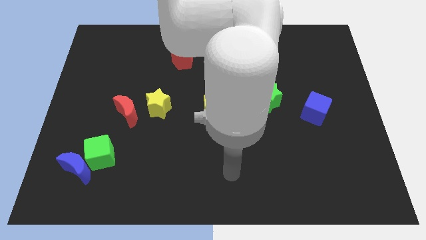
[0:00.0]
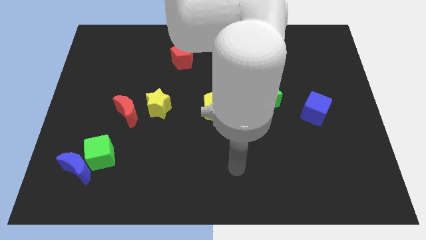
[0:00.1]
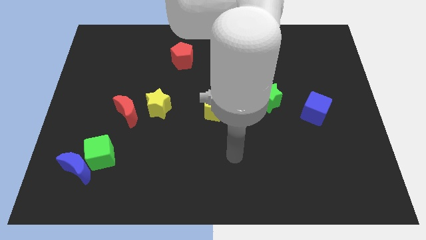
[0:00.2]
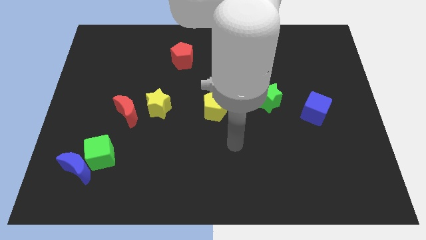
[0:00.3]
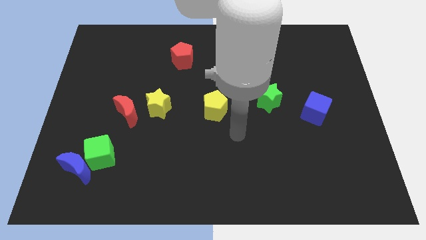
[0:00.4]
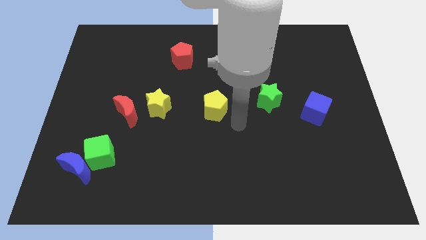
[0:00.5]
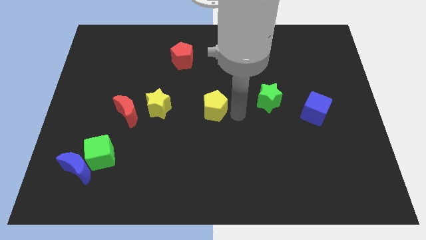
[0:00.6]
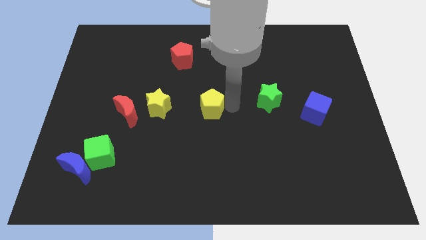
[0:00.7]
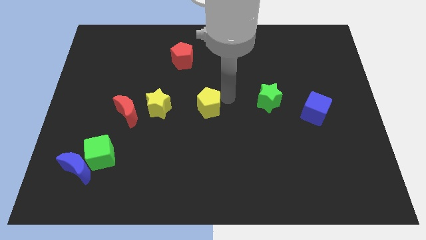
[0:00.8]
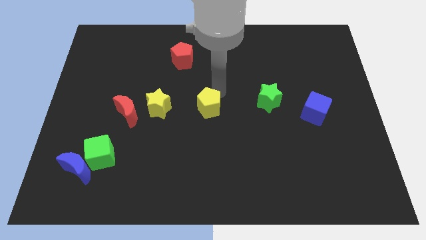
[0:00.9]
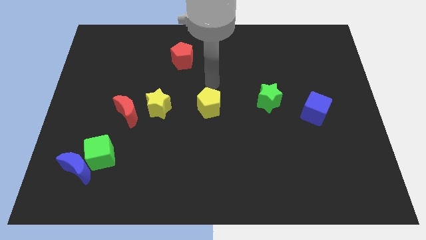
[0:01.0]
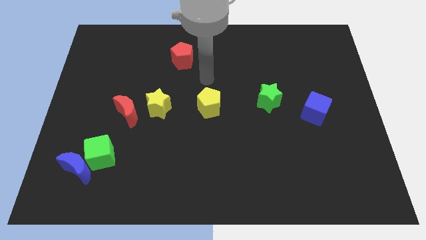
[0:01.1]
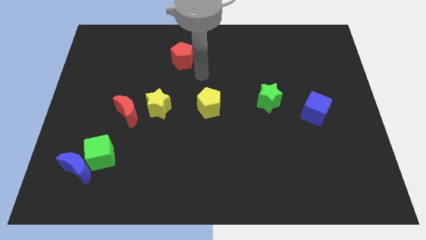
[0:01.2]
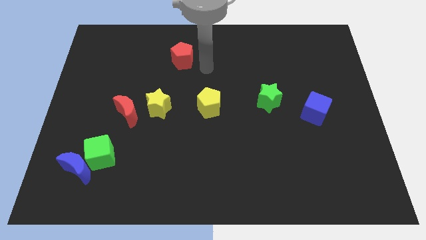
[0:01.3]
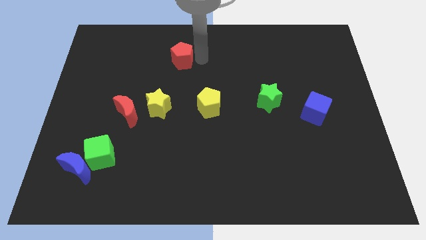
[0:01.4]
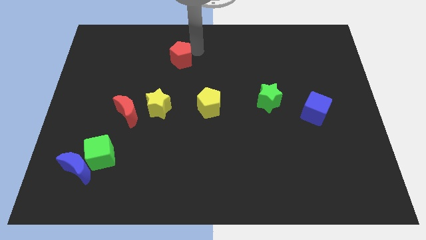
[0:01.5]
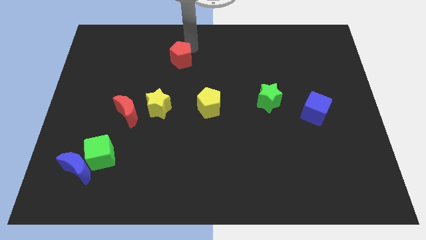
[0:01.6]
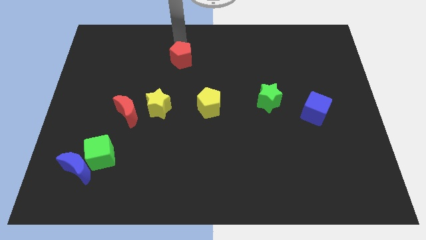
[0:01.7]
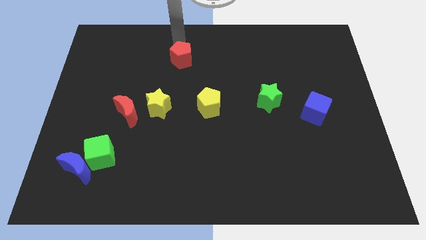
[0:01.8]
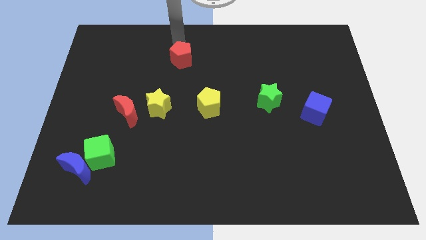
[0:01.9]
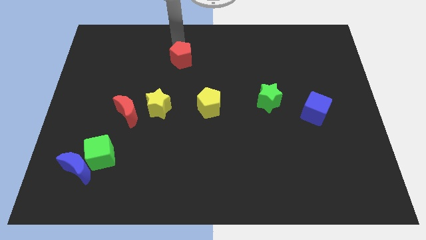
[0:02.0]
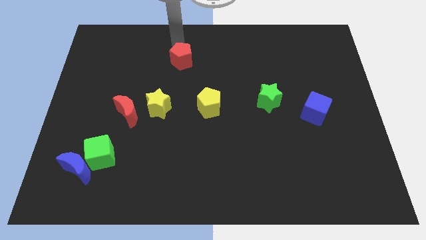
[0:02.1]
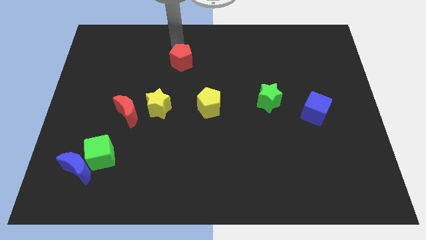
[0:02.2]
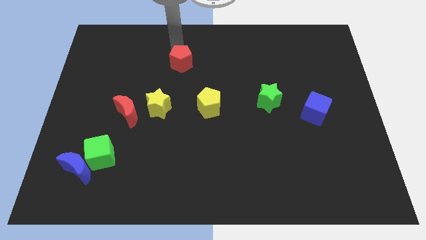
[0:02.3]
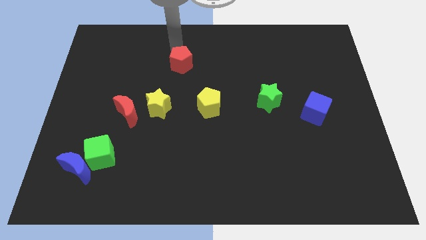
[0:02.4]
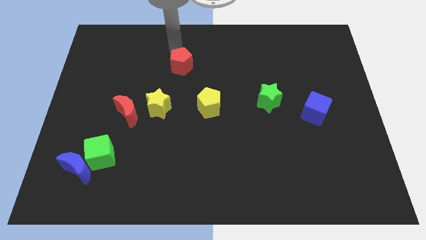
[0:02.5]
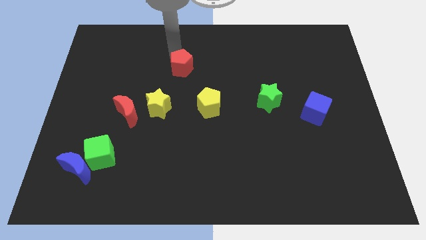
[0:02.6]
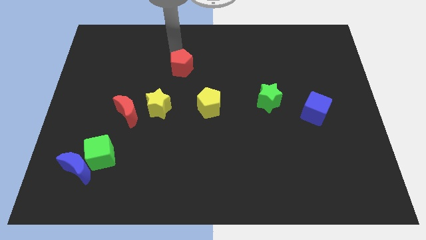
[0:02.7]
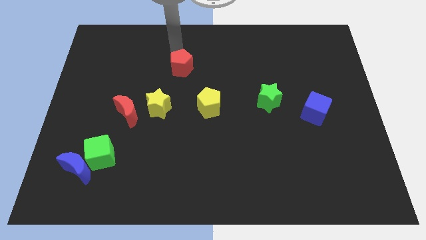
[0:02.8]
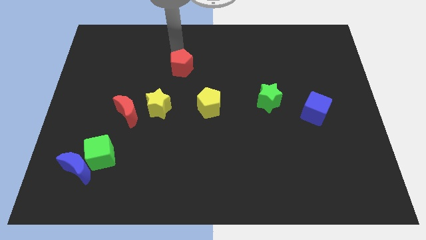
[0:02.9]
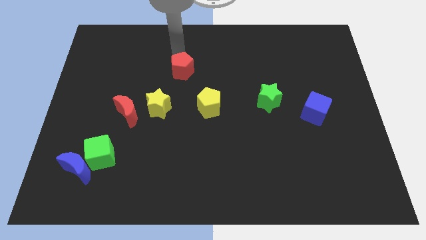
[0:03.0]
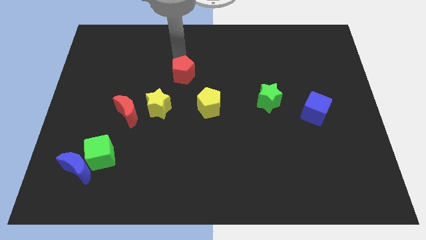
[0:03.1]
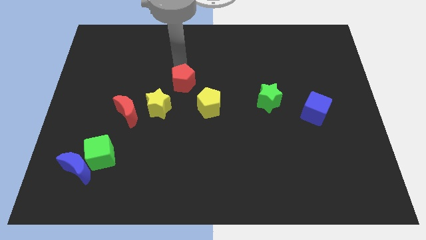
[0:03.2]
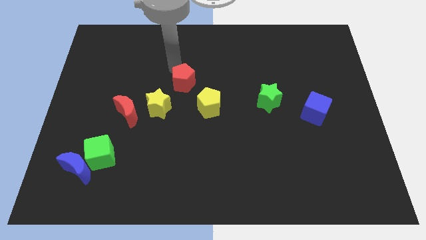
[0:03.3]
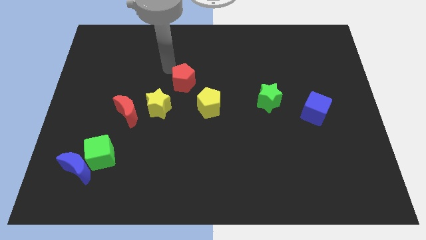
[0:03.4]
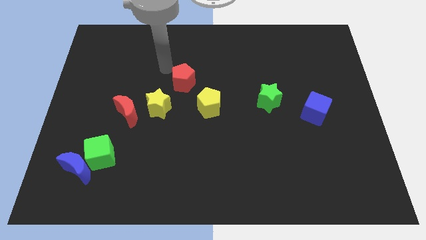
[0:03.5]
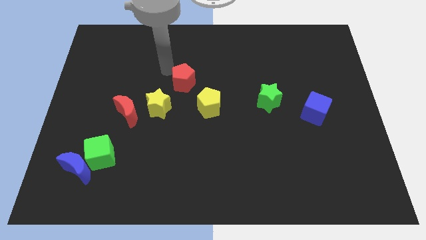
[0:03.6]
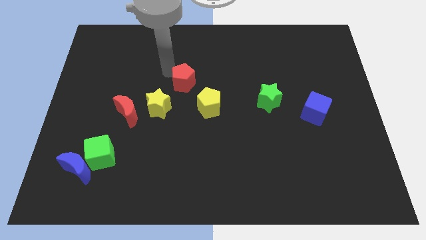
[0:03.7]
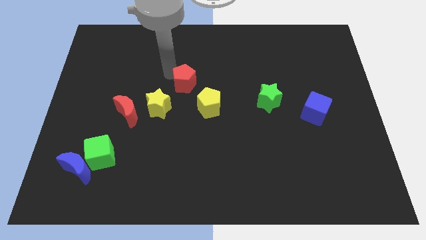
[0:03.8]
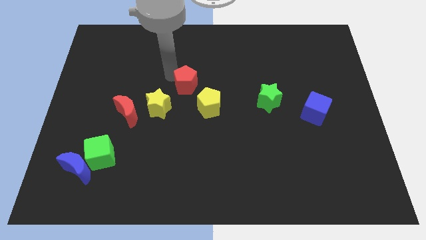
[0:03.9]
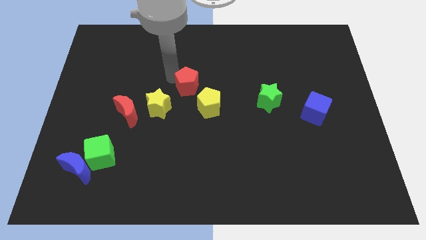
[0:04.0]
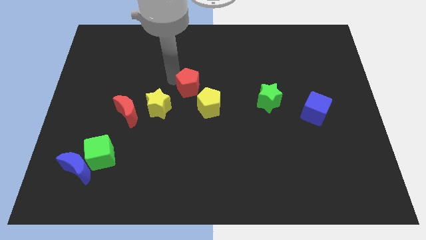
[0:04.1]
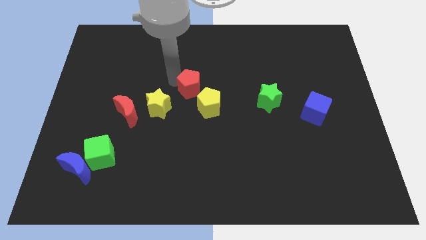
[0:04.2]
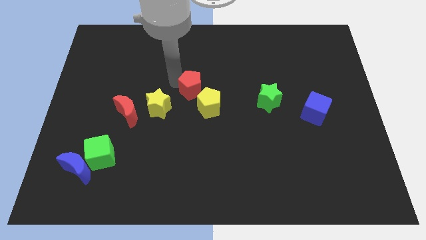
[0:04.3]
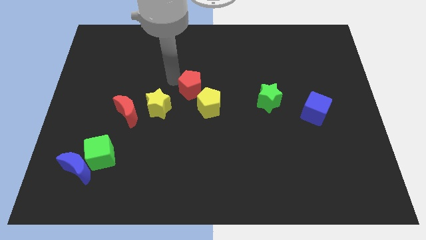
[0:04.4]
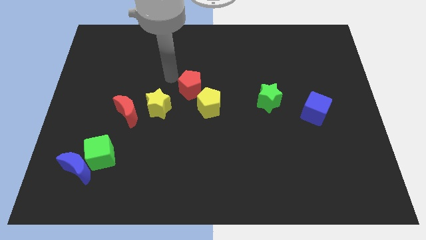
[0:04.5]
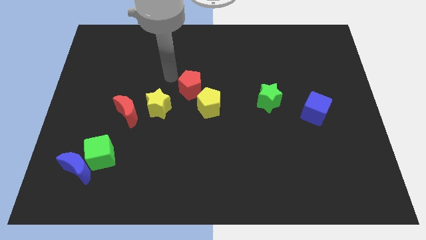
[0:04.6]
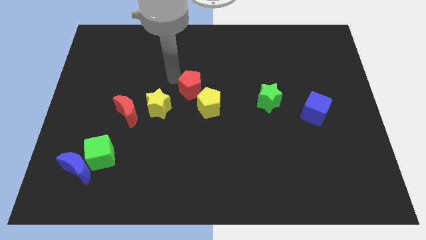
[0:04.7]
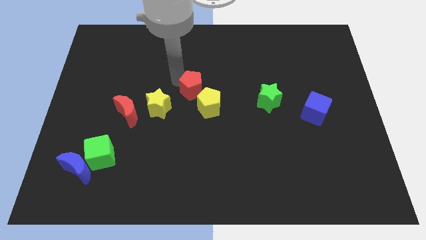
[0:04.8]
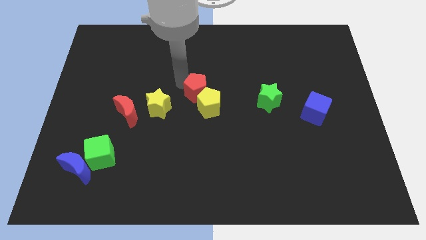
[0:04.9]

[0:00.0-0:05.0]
put the red pentagon towards the yellow pentagon

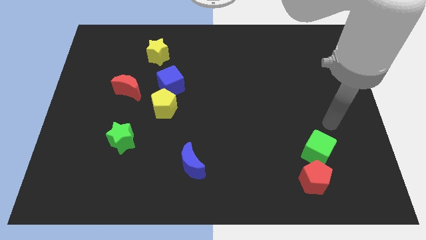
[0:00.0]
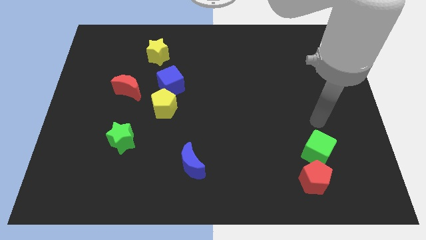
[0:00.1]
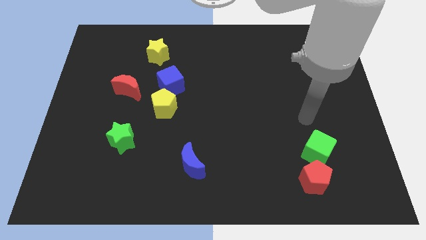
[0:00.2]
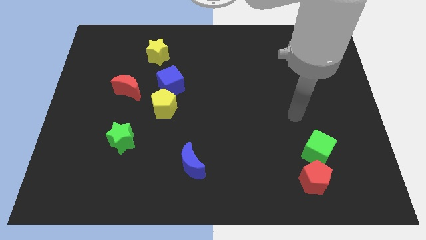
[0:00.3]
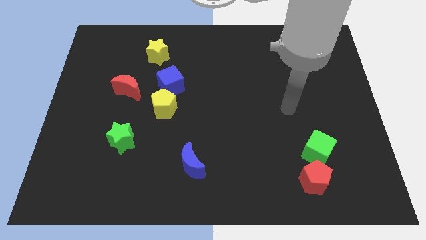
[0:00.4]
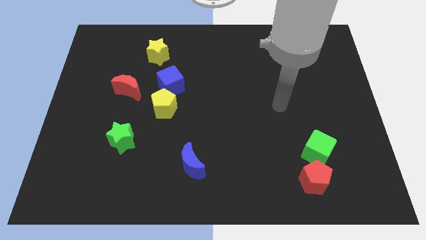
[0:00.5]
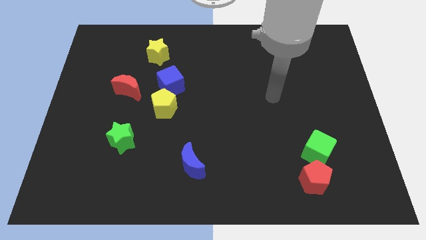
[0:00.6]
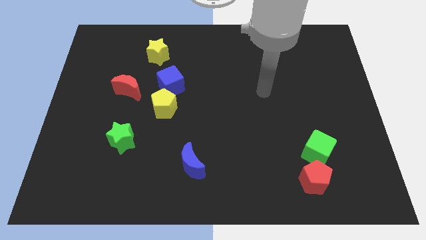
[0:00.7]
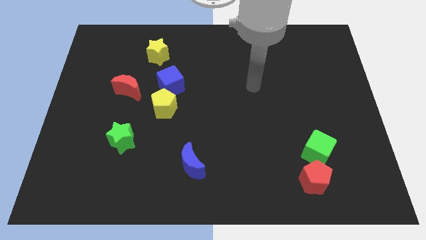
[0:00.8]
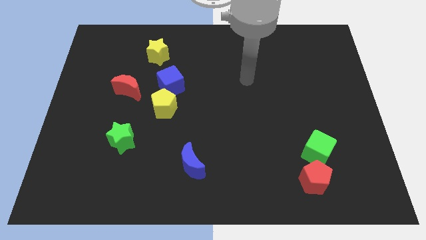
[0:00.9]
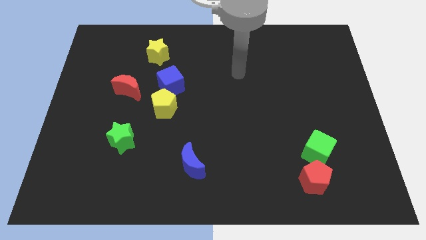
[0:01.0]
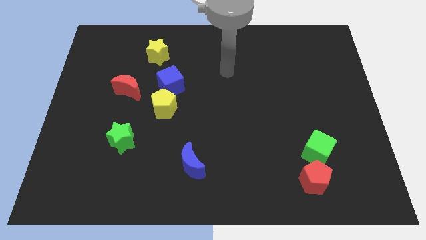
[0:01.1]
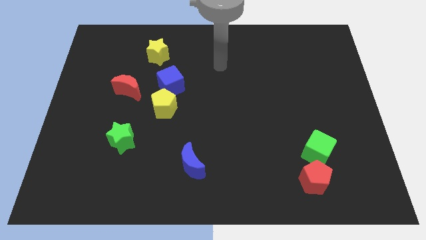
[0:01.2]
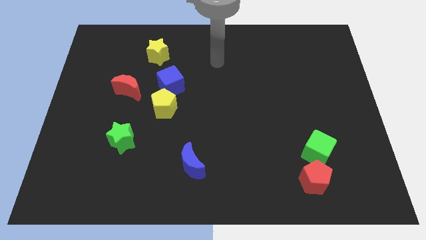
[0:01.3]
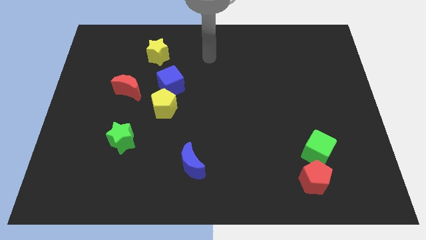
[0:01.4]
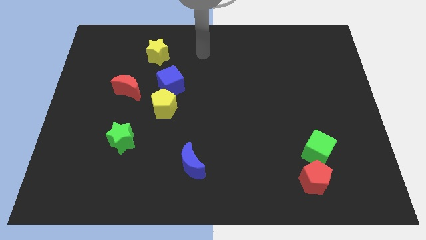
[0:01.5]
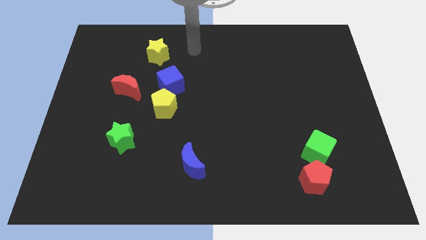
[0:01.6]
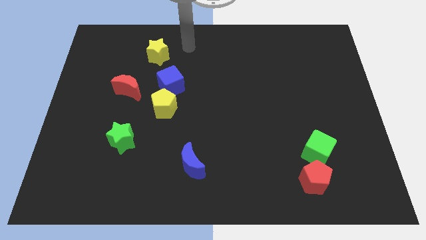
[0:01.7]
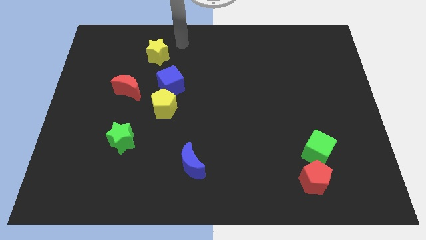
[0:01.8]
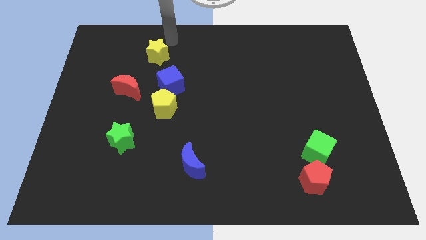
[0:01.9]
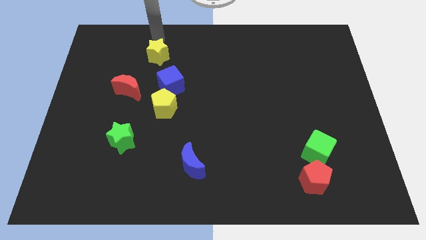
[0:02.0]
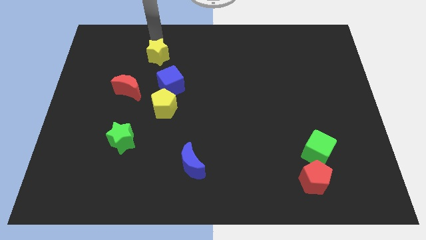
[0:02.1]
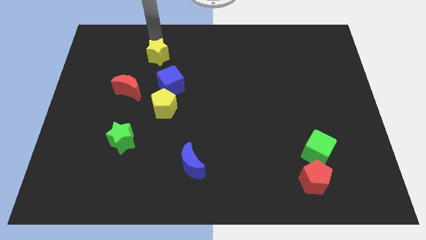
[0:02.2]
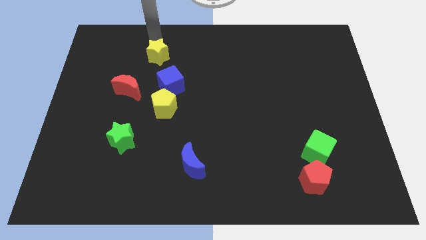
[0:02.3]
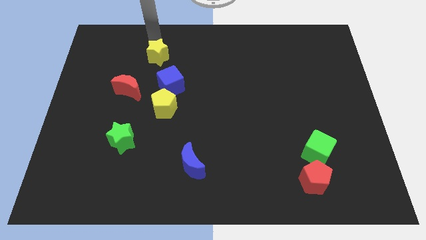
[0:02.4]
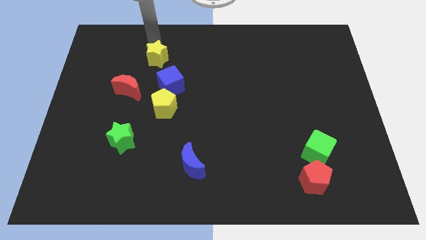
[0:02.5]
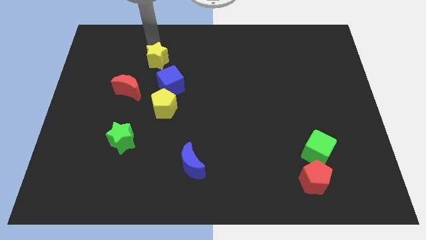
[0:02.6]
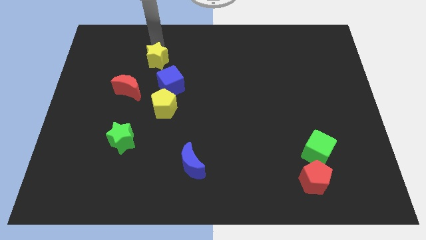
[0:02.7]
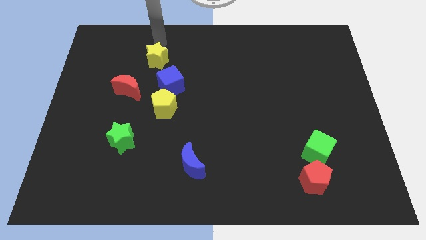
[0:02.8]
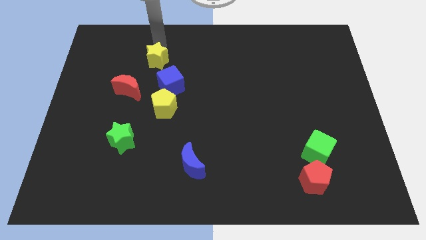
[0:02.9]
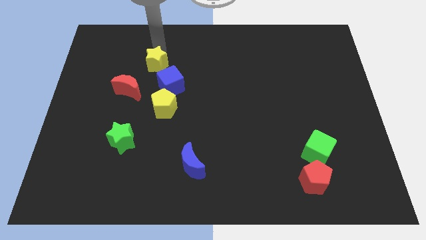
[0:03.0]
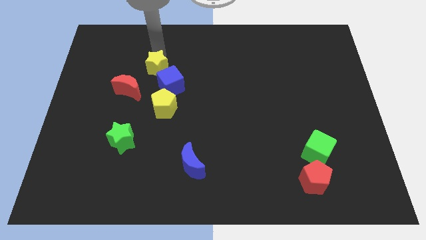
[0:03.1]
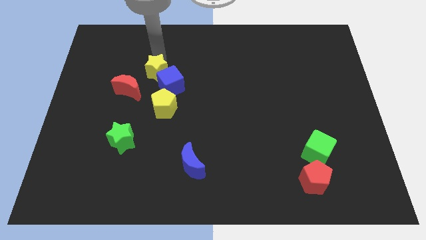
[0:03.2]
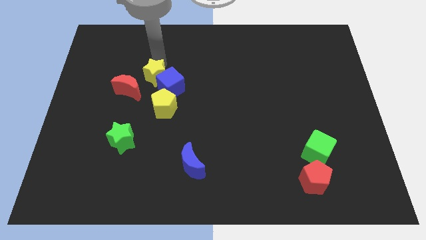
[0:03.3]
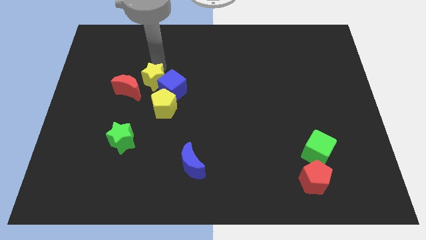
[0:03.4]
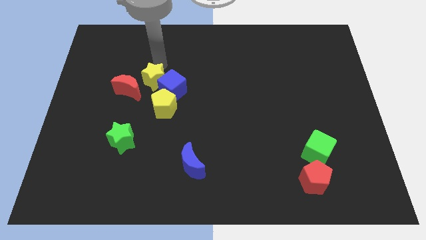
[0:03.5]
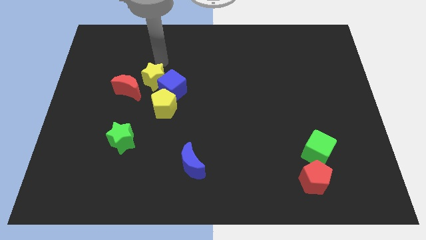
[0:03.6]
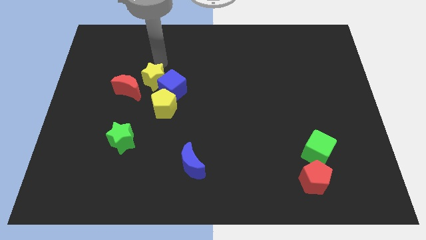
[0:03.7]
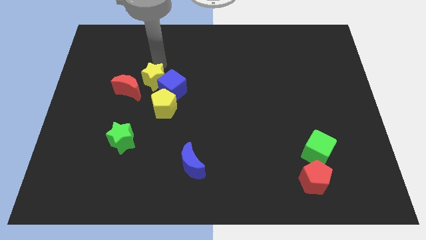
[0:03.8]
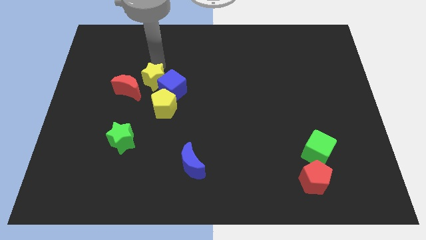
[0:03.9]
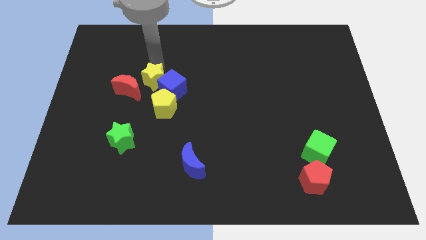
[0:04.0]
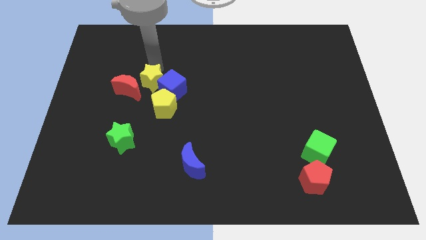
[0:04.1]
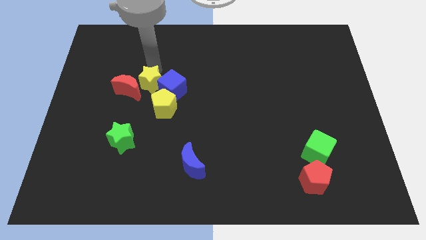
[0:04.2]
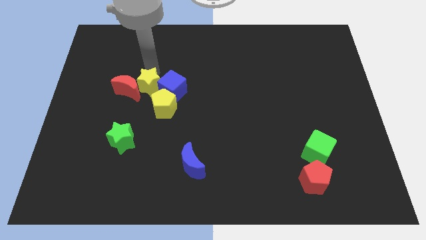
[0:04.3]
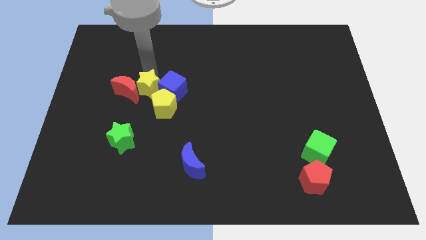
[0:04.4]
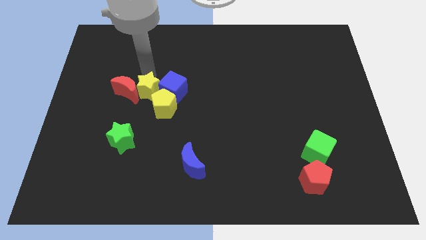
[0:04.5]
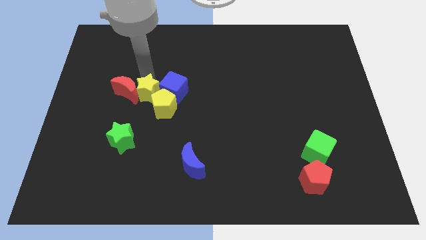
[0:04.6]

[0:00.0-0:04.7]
slide the yellow star towards the yellow pentagon
